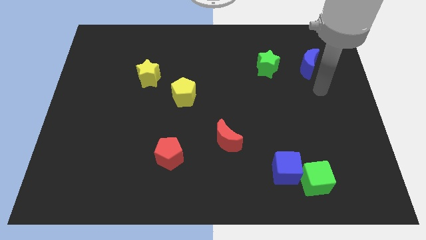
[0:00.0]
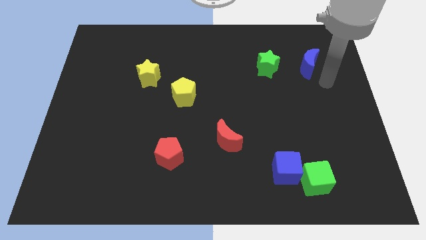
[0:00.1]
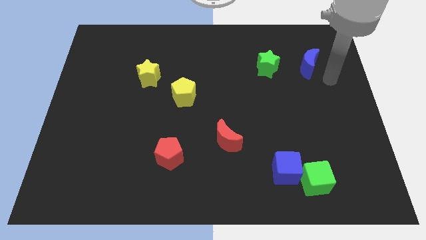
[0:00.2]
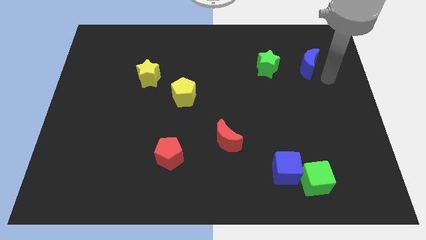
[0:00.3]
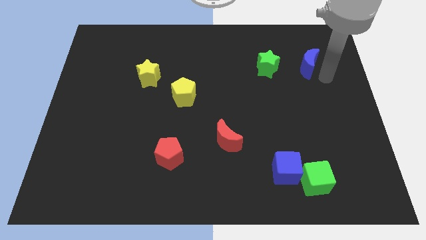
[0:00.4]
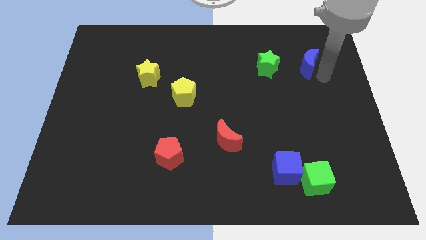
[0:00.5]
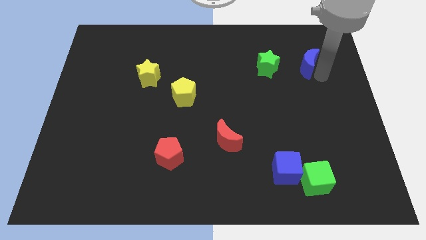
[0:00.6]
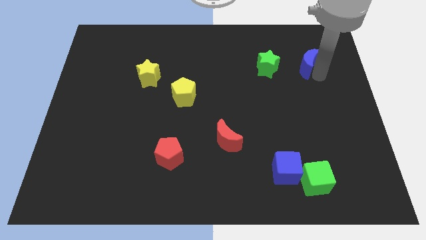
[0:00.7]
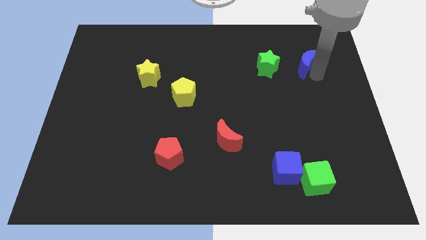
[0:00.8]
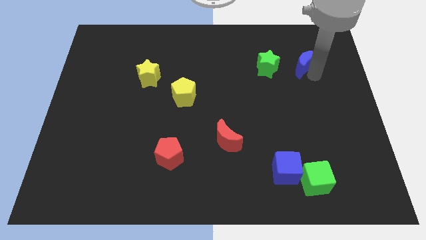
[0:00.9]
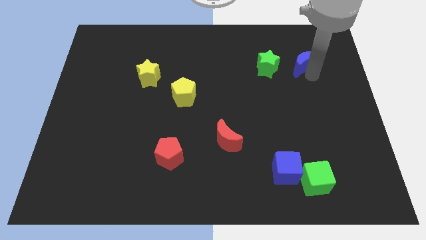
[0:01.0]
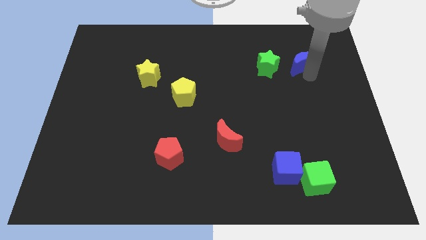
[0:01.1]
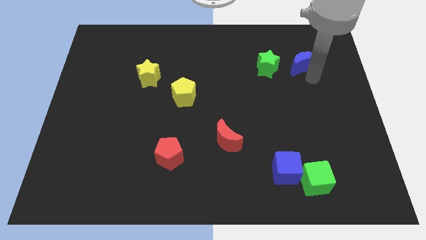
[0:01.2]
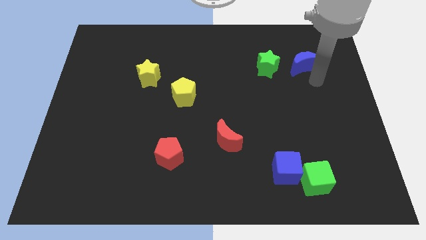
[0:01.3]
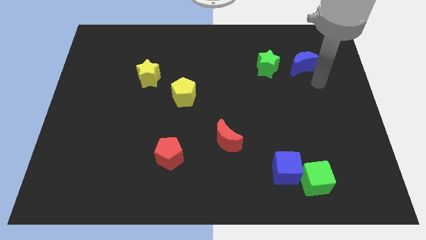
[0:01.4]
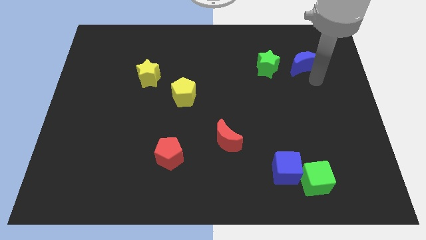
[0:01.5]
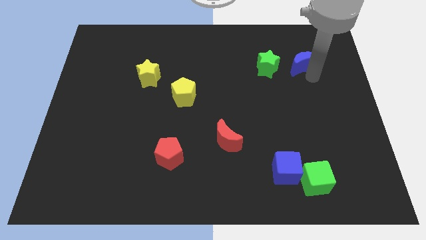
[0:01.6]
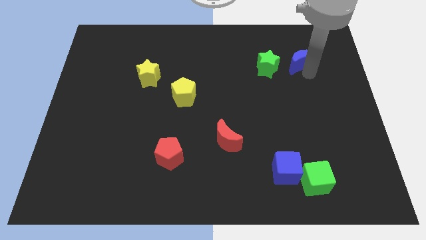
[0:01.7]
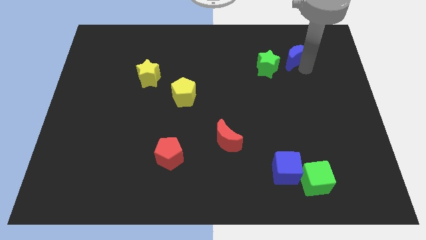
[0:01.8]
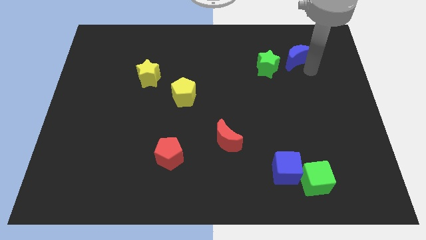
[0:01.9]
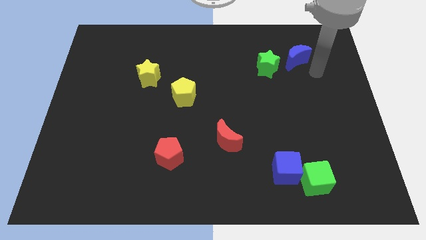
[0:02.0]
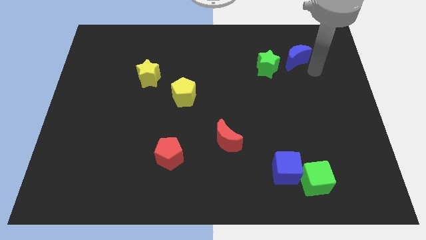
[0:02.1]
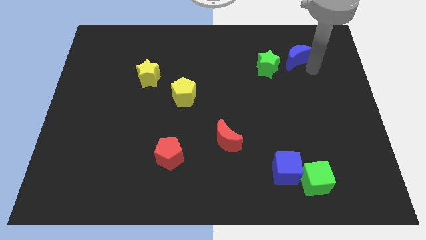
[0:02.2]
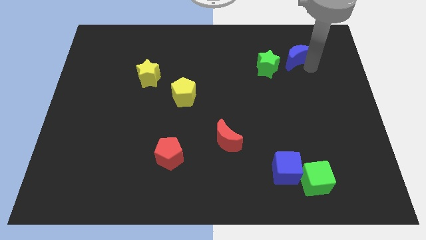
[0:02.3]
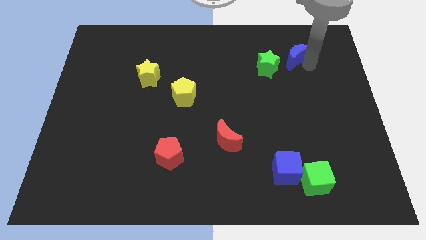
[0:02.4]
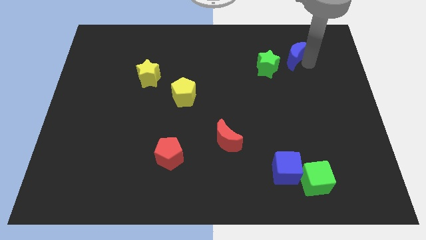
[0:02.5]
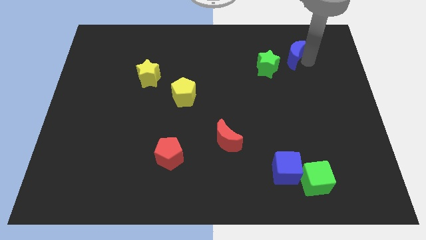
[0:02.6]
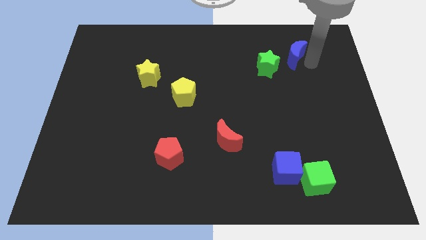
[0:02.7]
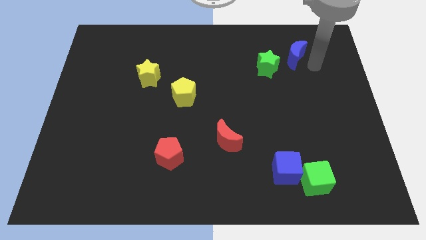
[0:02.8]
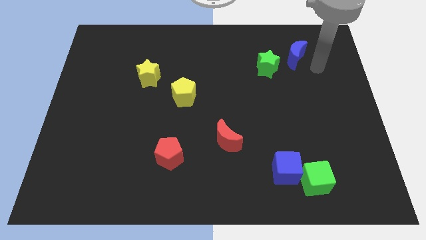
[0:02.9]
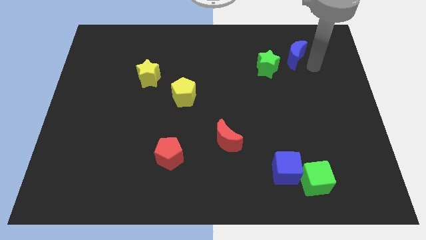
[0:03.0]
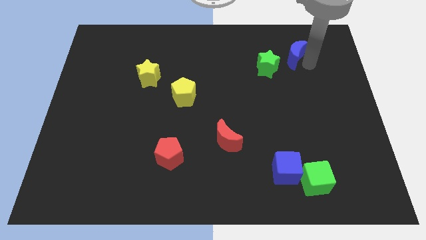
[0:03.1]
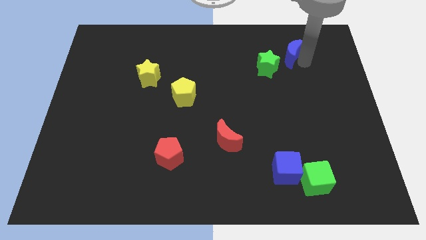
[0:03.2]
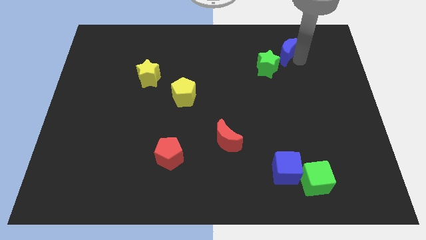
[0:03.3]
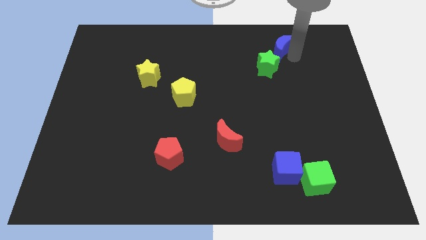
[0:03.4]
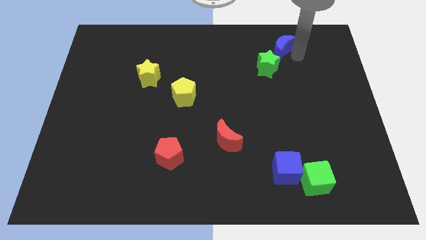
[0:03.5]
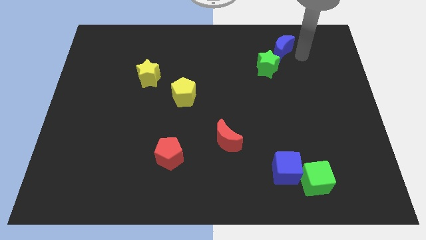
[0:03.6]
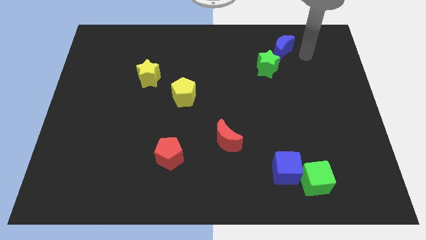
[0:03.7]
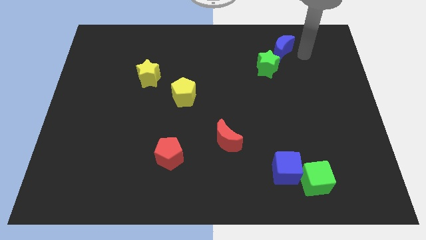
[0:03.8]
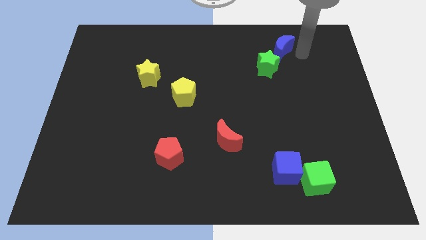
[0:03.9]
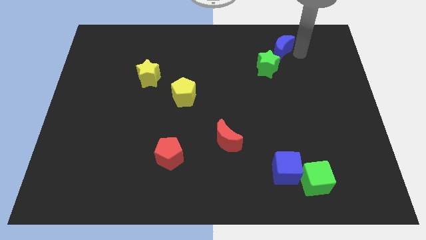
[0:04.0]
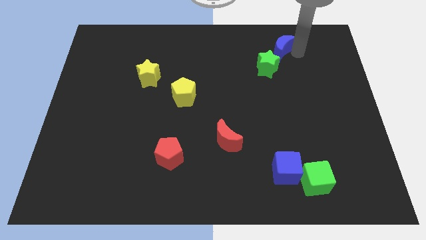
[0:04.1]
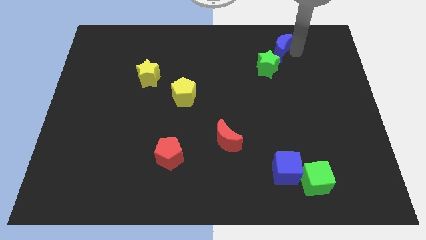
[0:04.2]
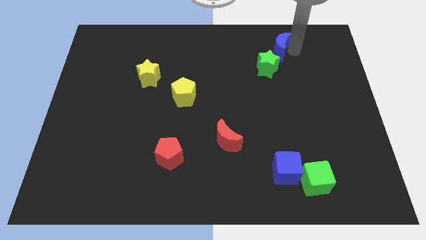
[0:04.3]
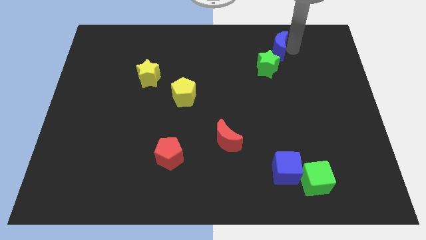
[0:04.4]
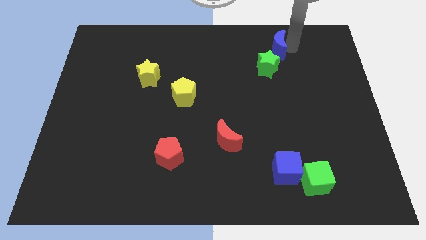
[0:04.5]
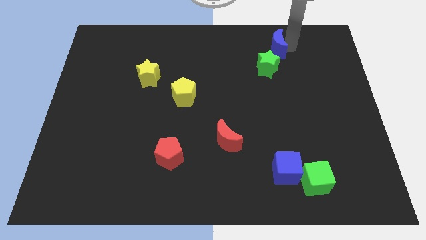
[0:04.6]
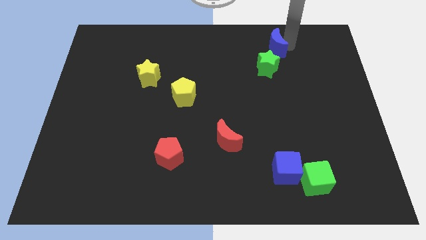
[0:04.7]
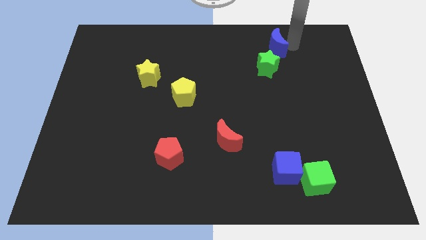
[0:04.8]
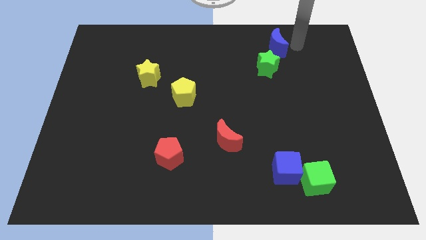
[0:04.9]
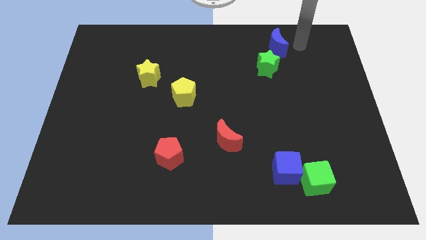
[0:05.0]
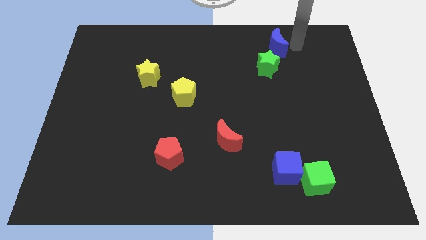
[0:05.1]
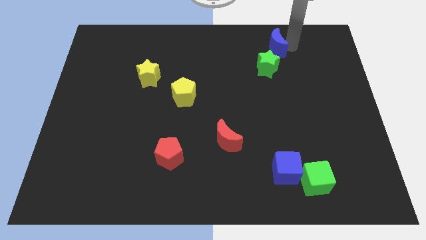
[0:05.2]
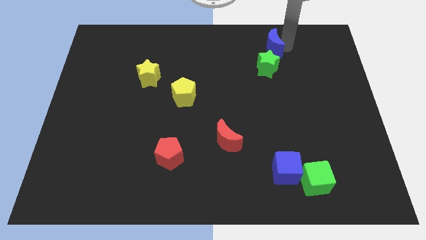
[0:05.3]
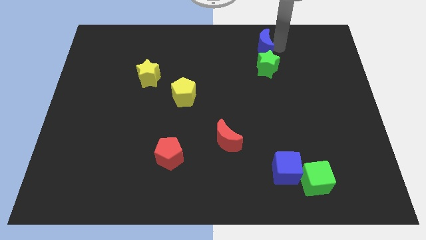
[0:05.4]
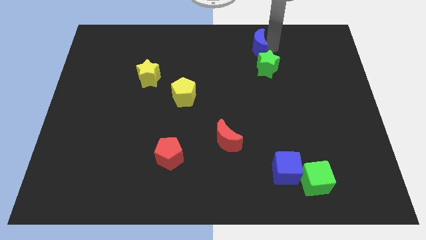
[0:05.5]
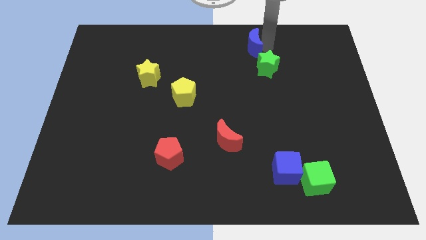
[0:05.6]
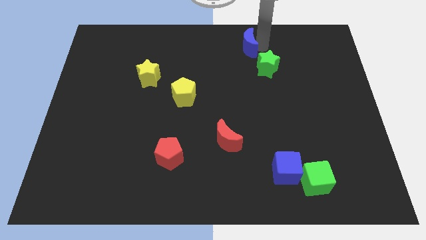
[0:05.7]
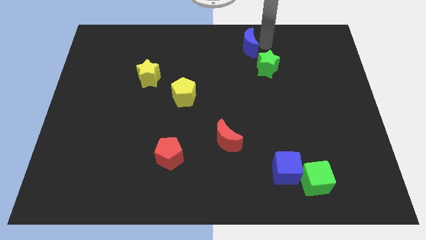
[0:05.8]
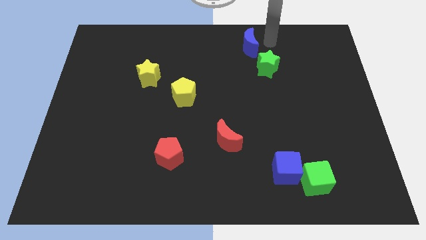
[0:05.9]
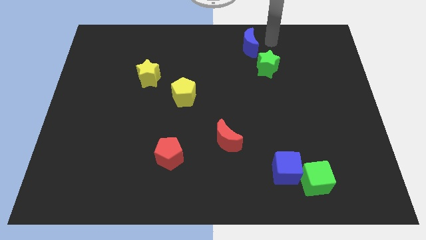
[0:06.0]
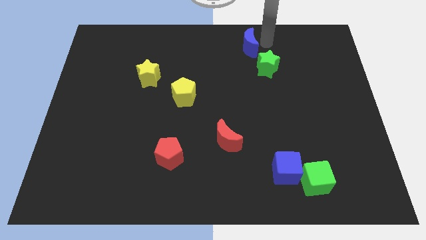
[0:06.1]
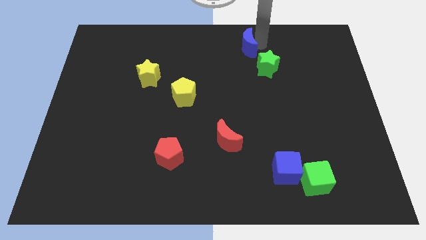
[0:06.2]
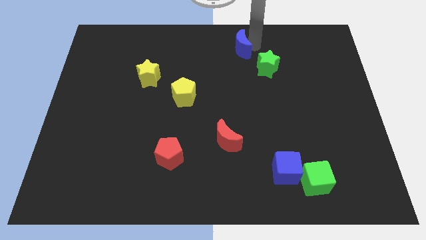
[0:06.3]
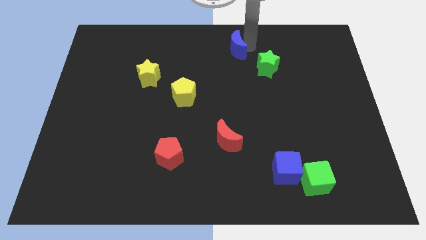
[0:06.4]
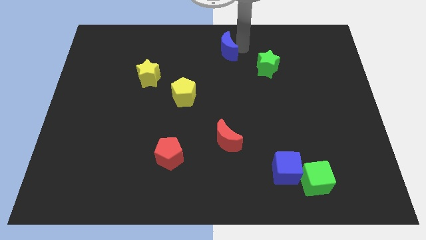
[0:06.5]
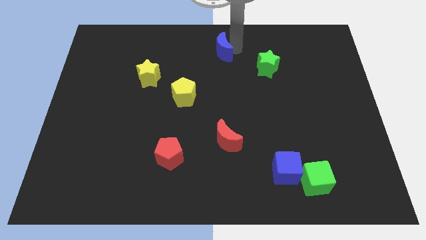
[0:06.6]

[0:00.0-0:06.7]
slide the blue moon to the left

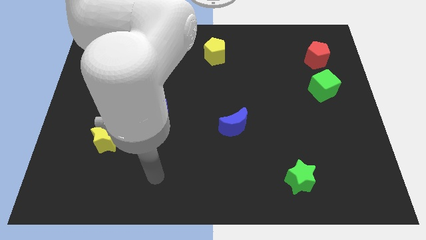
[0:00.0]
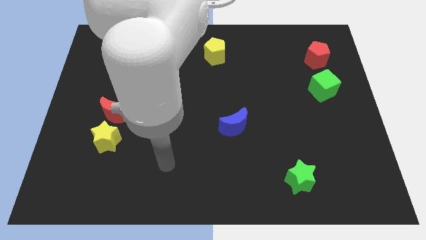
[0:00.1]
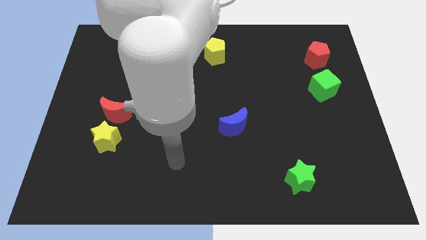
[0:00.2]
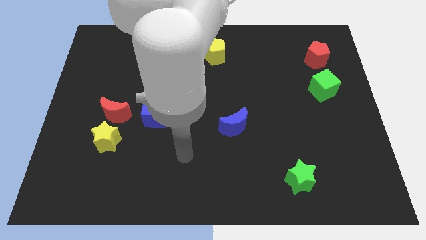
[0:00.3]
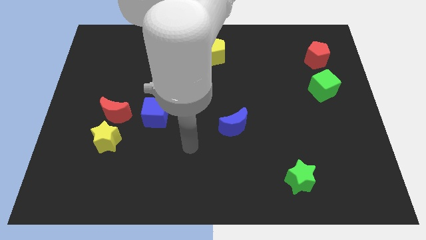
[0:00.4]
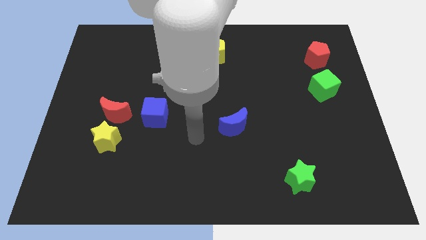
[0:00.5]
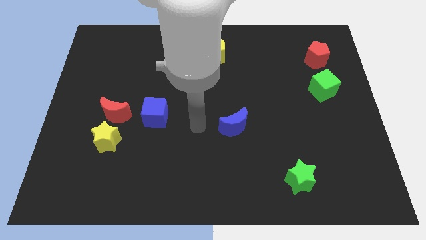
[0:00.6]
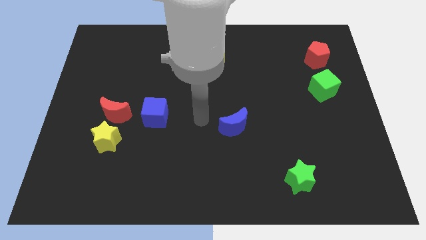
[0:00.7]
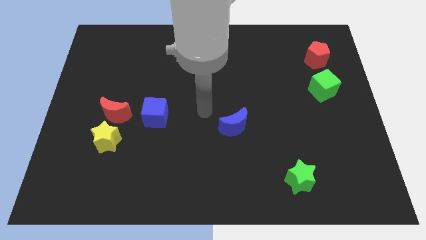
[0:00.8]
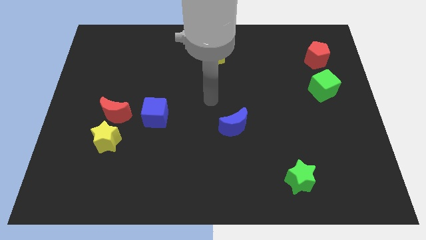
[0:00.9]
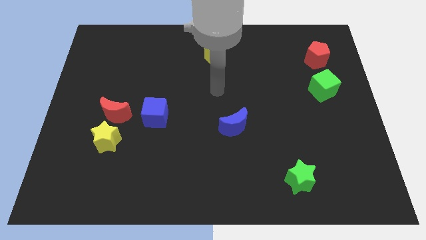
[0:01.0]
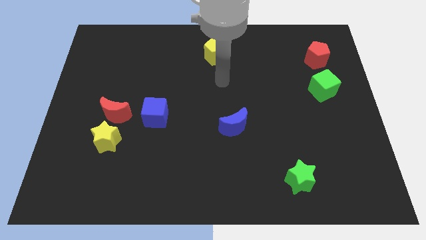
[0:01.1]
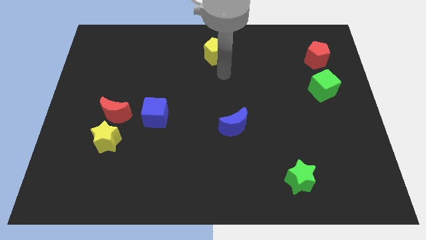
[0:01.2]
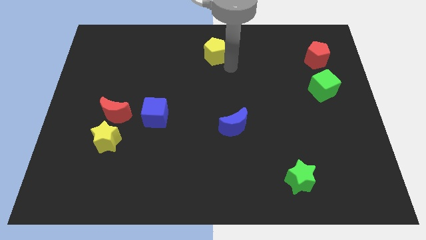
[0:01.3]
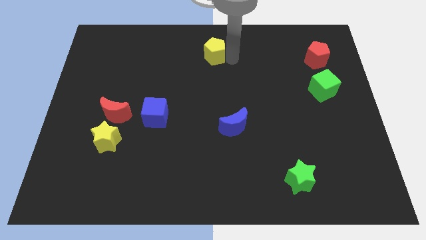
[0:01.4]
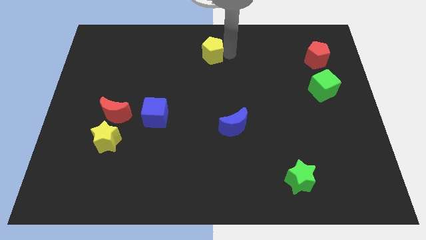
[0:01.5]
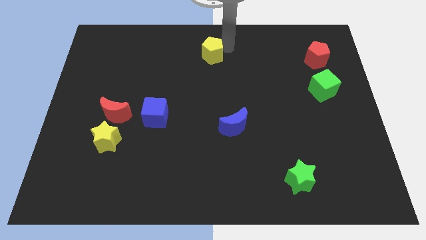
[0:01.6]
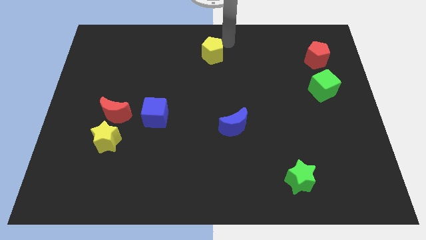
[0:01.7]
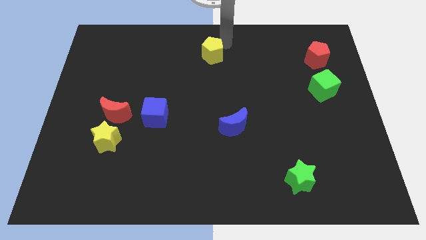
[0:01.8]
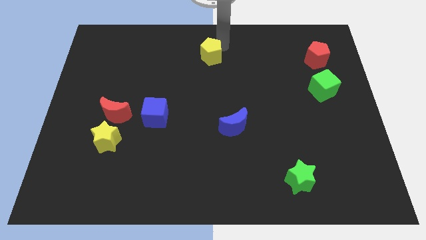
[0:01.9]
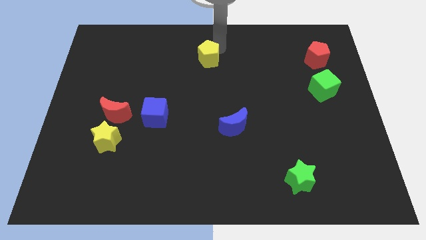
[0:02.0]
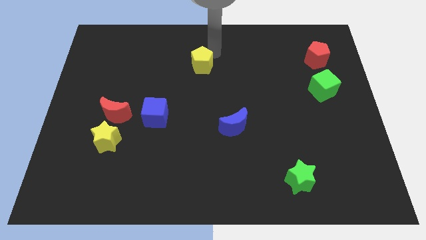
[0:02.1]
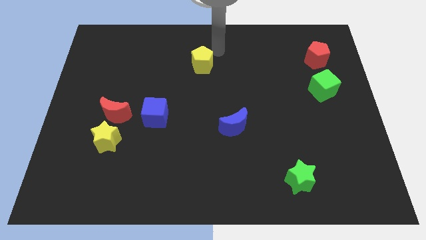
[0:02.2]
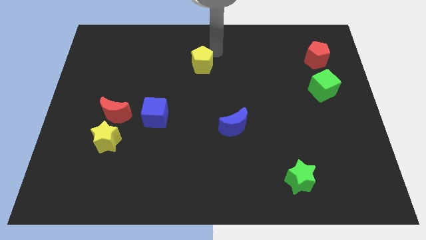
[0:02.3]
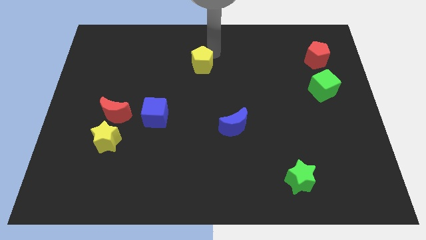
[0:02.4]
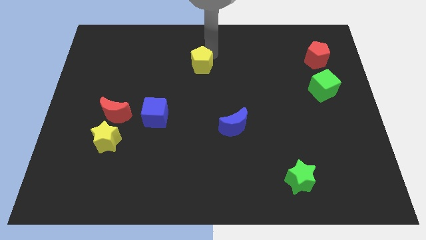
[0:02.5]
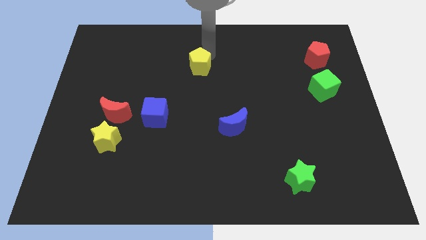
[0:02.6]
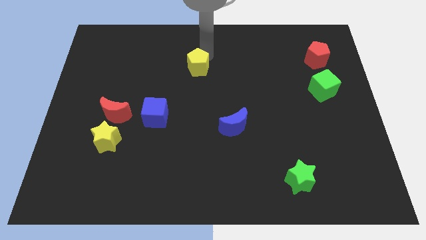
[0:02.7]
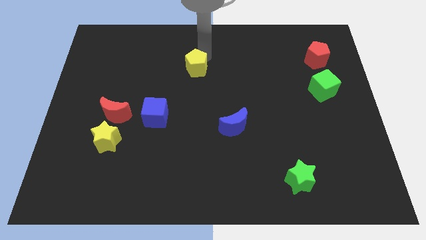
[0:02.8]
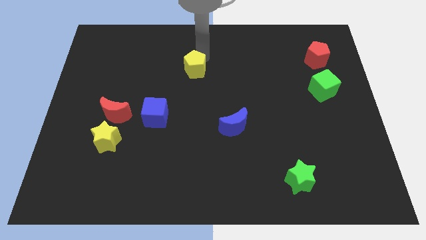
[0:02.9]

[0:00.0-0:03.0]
slide the yellow pentagon downwards and then to the left a bit
